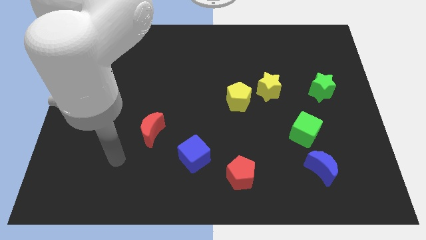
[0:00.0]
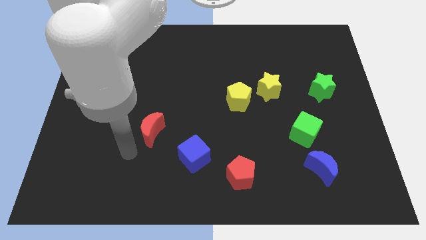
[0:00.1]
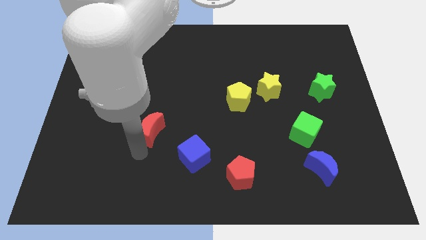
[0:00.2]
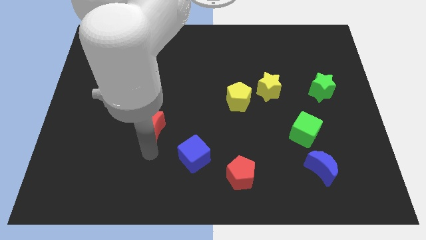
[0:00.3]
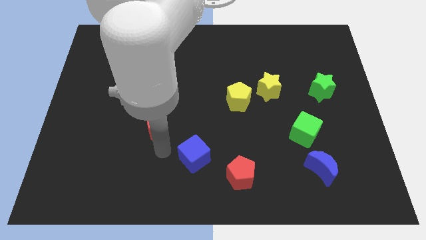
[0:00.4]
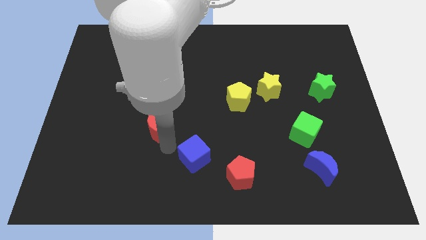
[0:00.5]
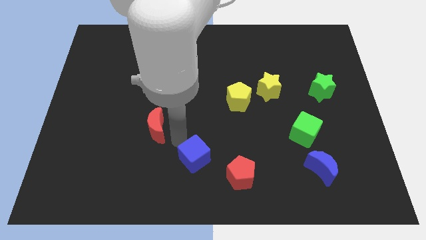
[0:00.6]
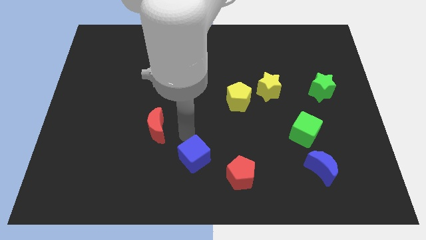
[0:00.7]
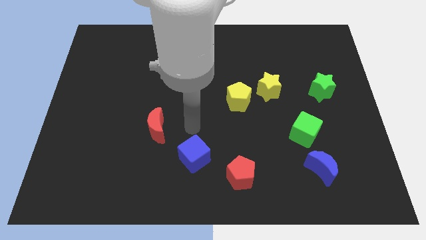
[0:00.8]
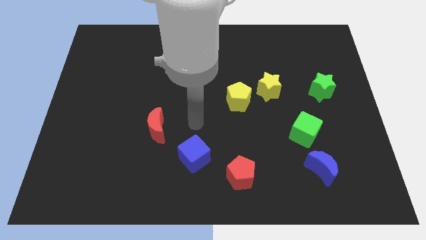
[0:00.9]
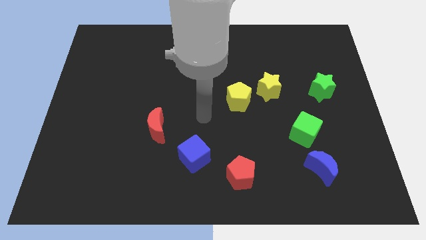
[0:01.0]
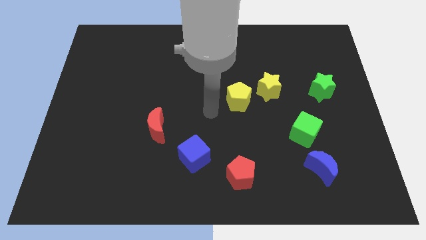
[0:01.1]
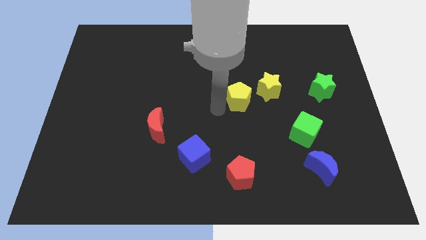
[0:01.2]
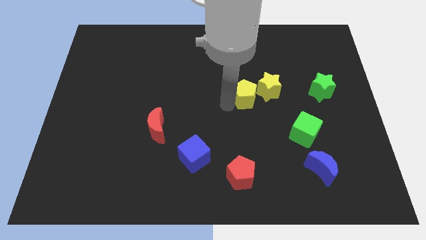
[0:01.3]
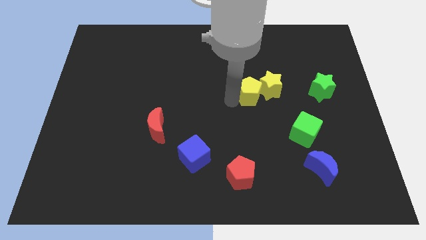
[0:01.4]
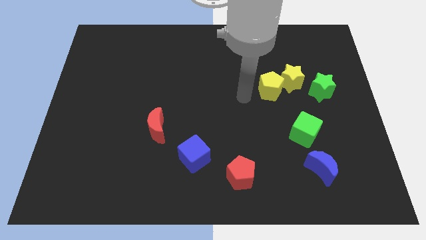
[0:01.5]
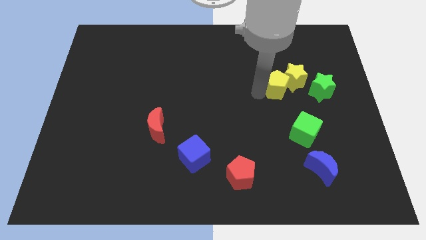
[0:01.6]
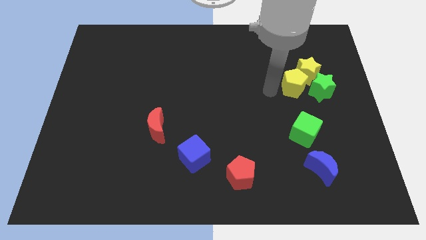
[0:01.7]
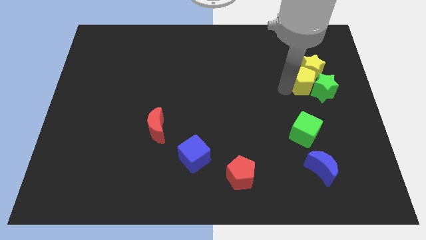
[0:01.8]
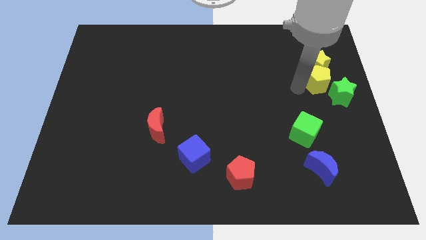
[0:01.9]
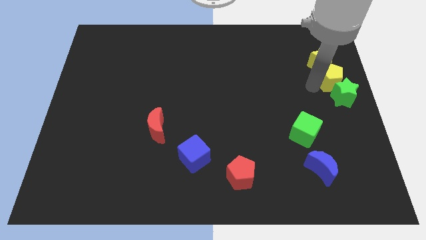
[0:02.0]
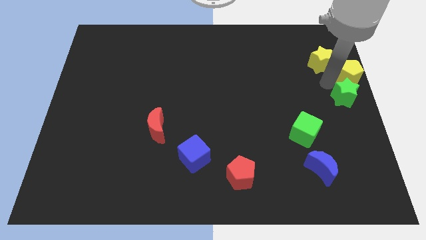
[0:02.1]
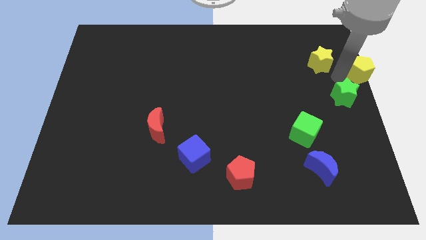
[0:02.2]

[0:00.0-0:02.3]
move the yellow star away from the yellow pentagon

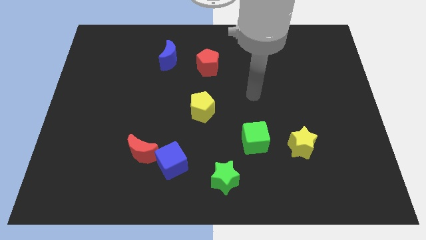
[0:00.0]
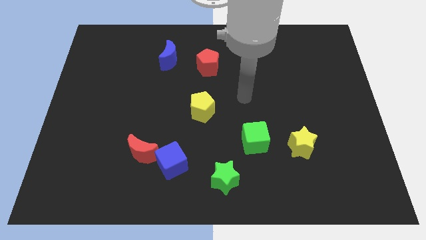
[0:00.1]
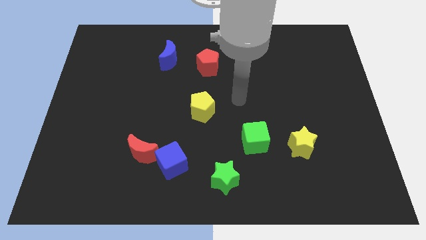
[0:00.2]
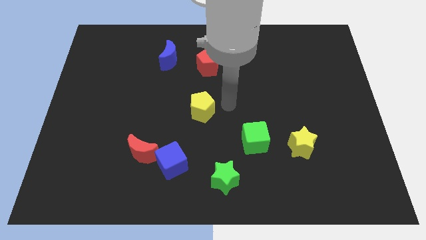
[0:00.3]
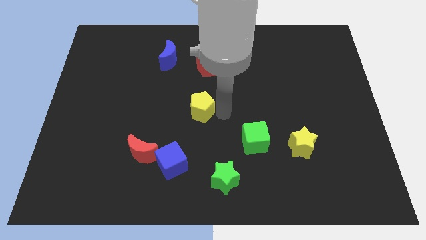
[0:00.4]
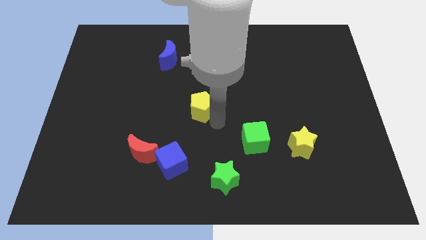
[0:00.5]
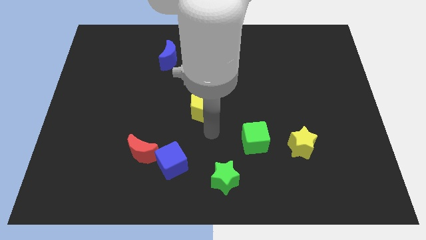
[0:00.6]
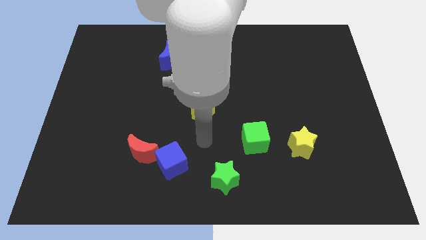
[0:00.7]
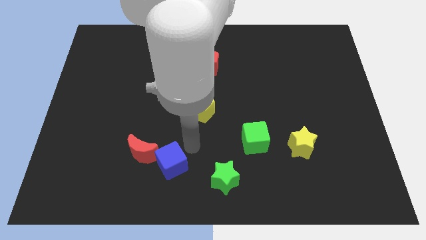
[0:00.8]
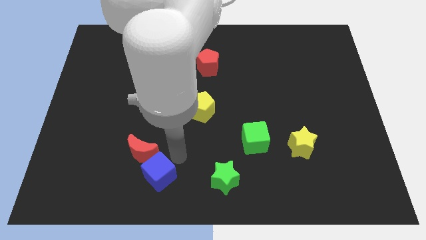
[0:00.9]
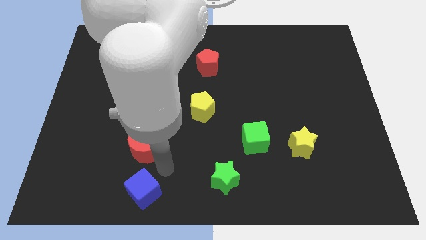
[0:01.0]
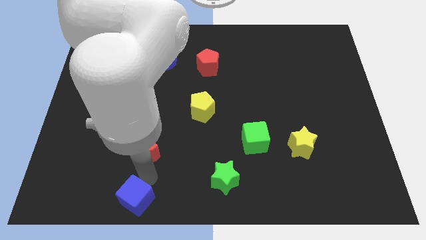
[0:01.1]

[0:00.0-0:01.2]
move the red moon away from the blue cube

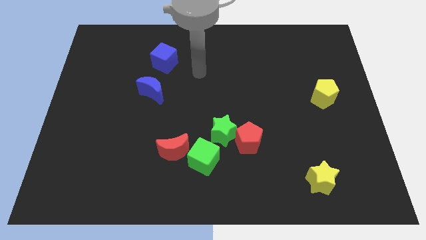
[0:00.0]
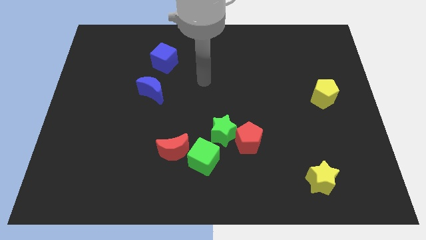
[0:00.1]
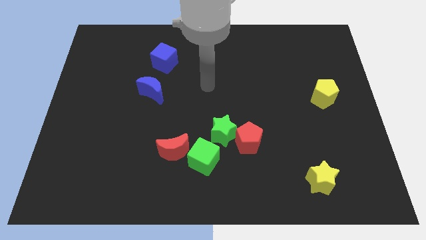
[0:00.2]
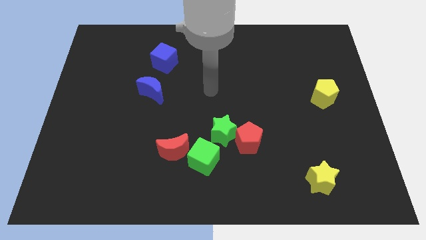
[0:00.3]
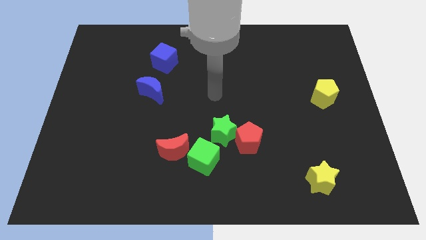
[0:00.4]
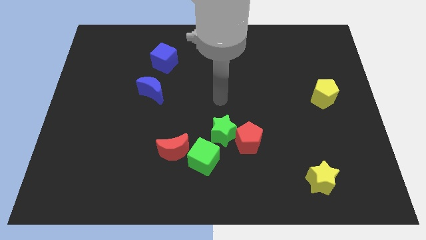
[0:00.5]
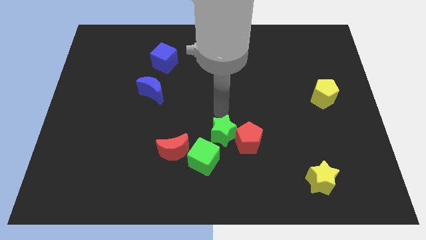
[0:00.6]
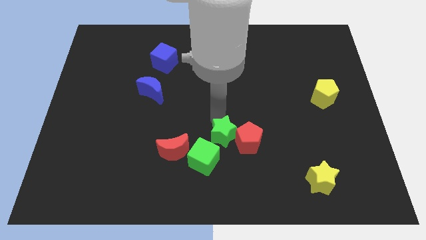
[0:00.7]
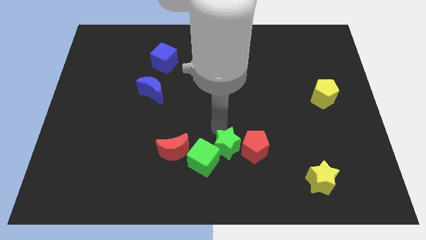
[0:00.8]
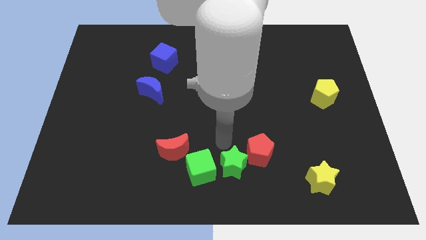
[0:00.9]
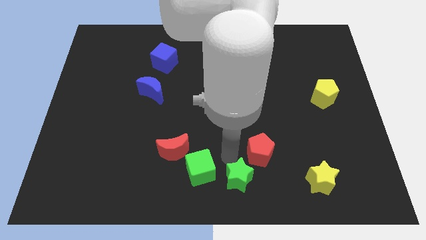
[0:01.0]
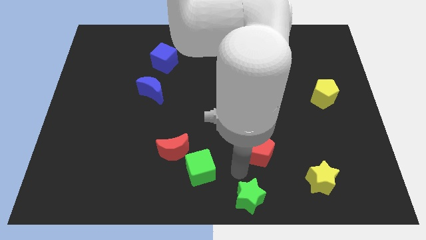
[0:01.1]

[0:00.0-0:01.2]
move the red pentagon away from the green star

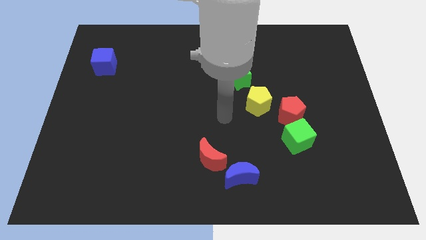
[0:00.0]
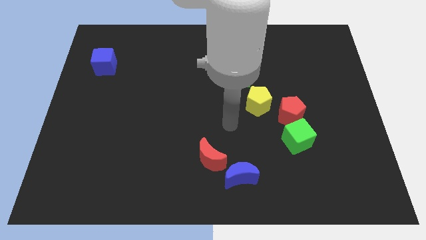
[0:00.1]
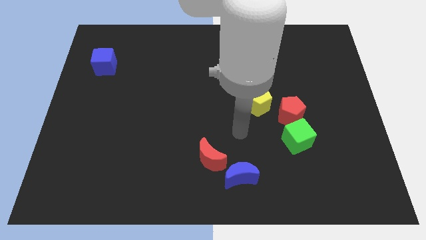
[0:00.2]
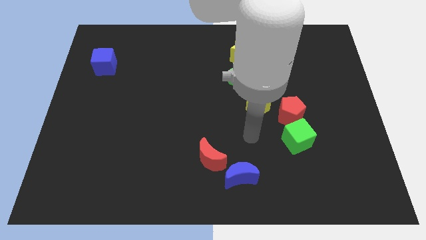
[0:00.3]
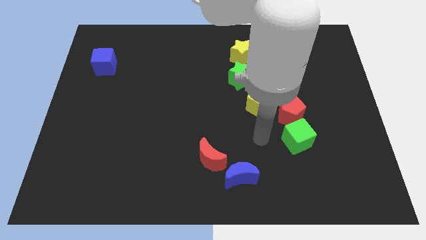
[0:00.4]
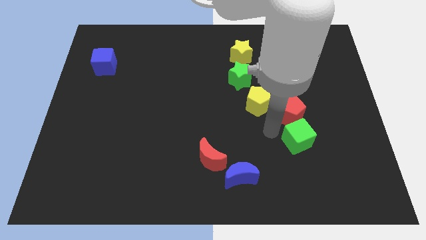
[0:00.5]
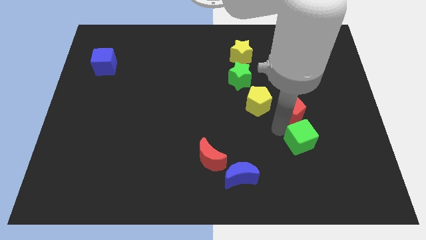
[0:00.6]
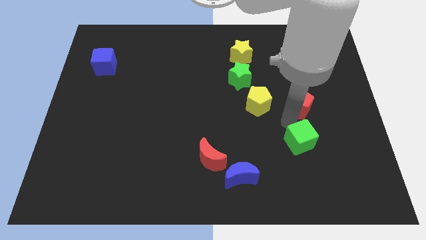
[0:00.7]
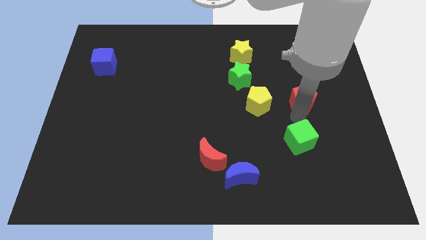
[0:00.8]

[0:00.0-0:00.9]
separate the green cube from the red pentagon

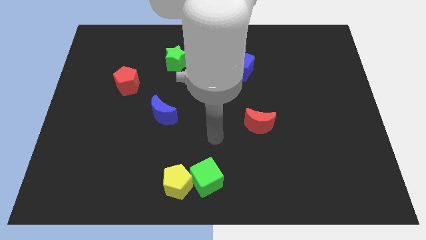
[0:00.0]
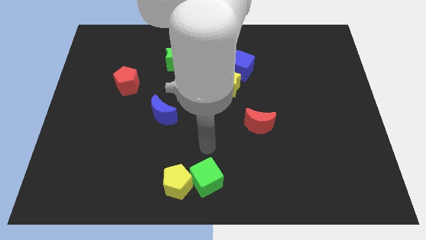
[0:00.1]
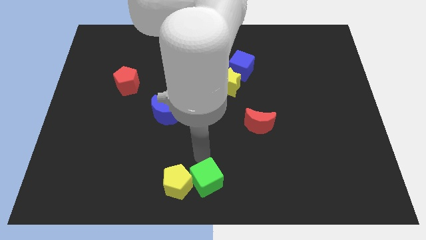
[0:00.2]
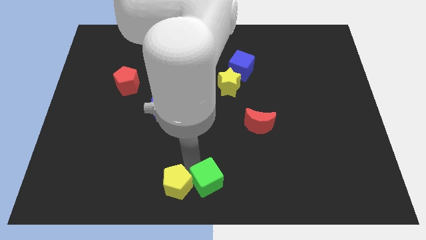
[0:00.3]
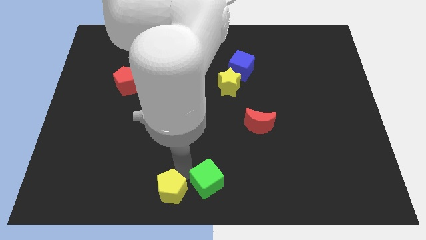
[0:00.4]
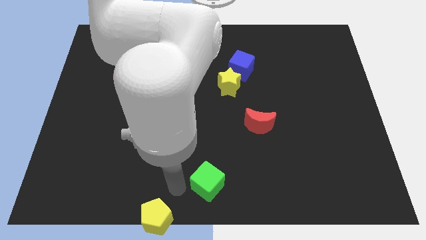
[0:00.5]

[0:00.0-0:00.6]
pull the green cube apart from the yellow pentagon

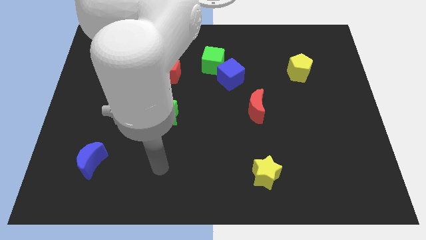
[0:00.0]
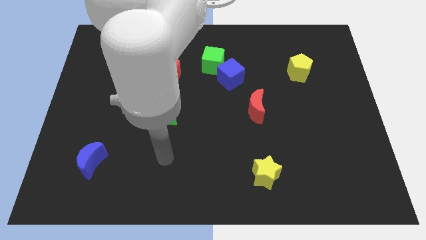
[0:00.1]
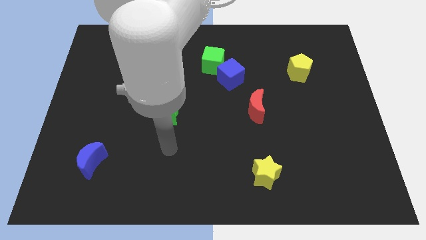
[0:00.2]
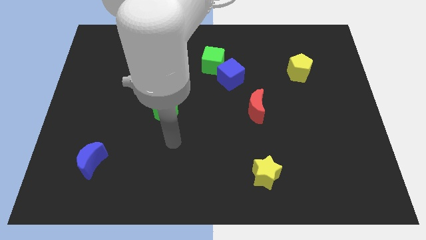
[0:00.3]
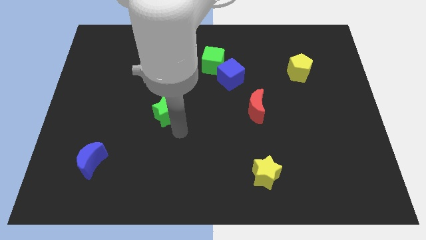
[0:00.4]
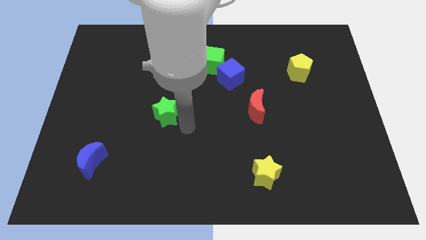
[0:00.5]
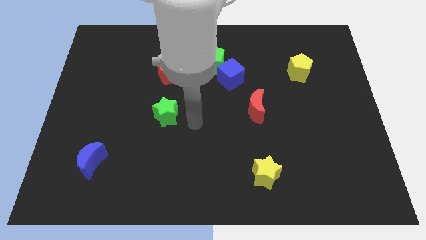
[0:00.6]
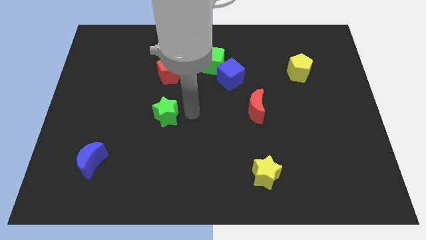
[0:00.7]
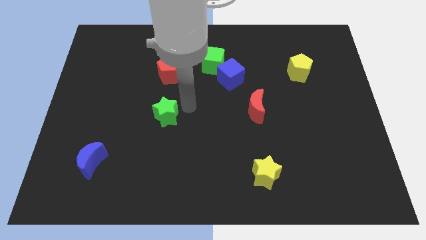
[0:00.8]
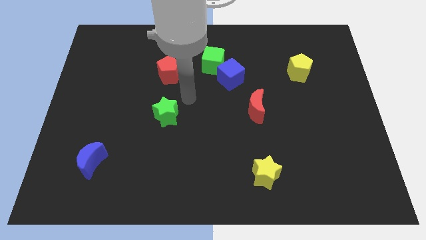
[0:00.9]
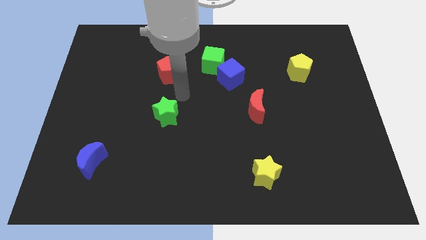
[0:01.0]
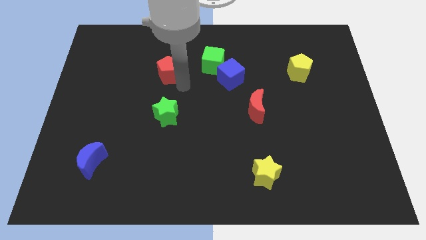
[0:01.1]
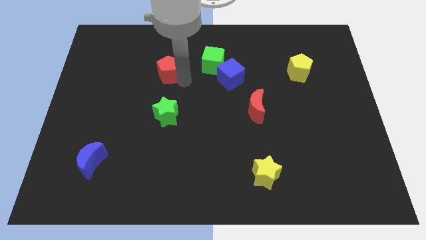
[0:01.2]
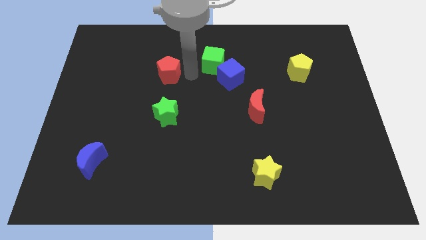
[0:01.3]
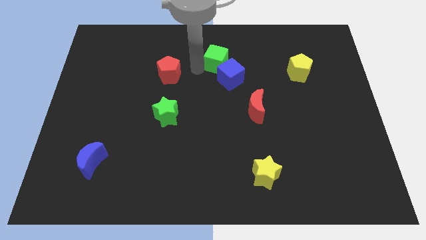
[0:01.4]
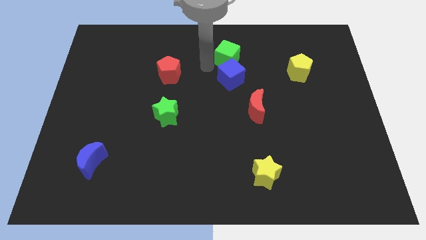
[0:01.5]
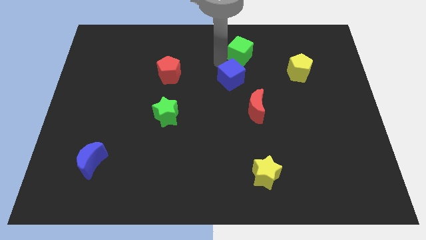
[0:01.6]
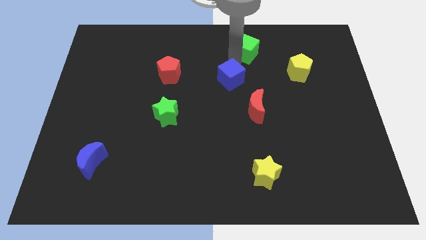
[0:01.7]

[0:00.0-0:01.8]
separate the blue cube from the green cube

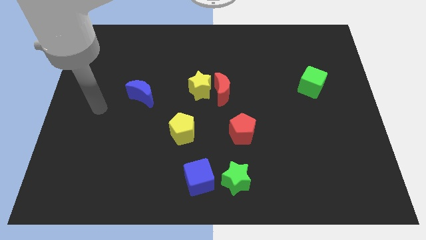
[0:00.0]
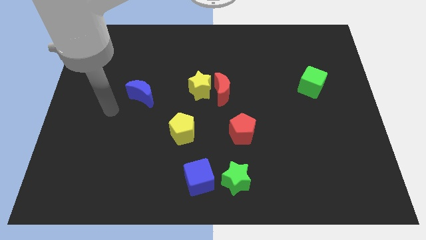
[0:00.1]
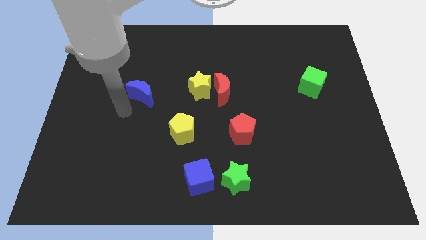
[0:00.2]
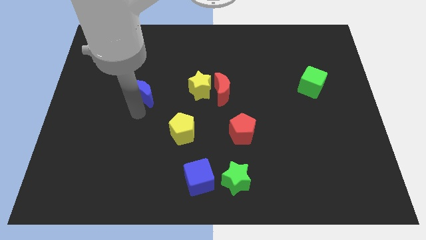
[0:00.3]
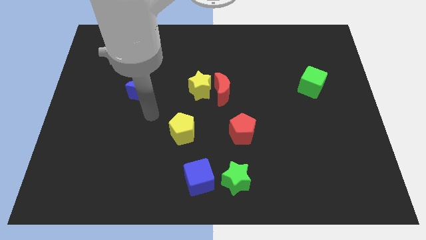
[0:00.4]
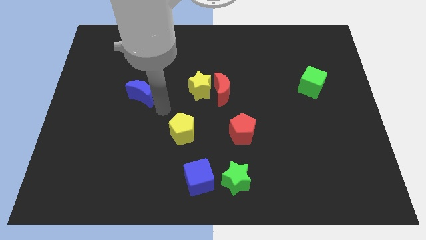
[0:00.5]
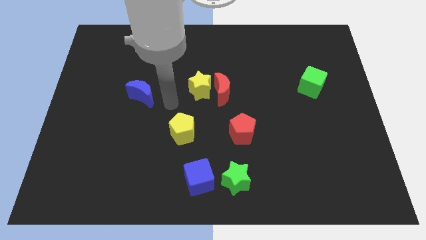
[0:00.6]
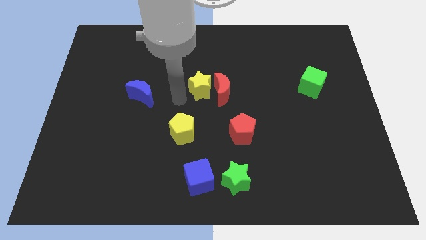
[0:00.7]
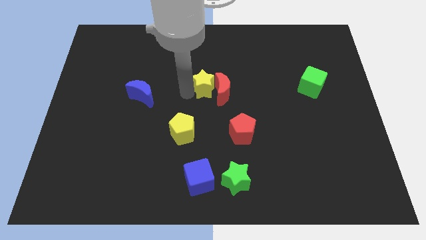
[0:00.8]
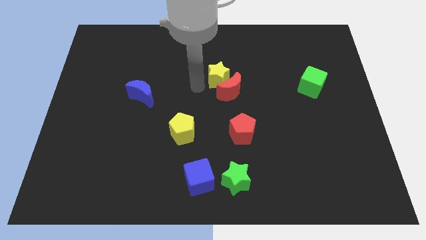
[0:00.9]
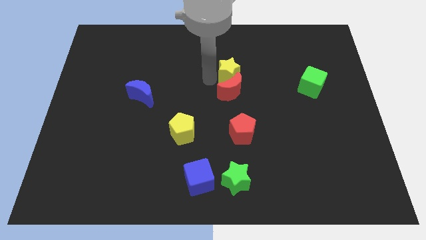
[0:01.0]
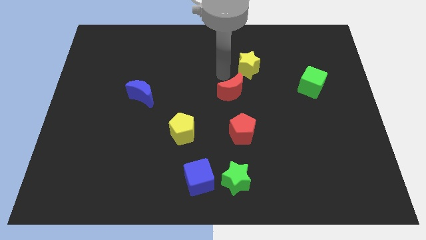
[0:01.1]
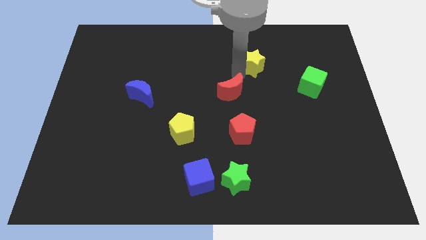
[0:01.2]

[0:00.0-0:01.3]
separate the red moon from the yellow star
